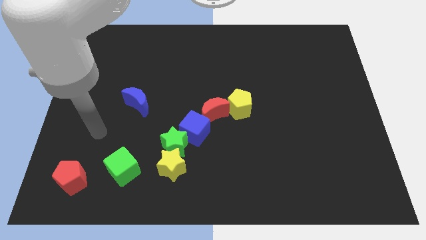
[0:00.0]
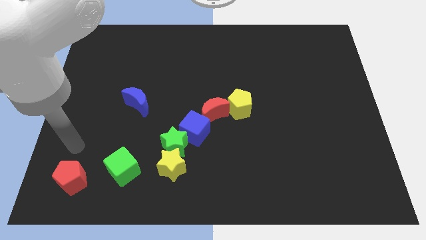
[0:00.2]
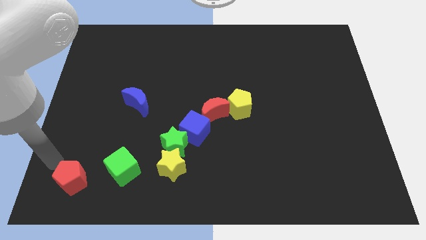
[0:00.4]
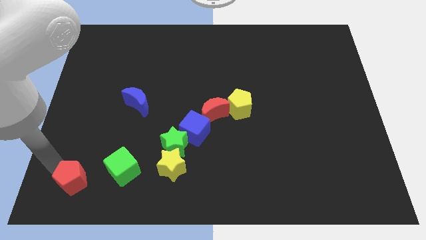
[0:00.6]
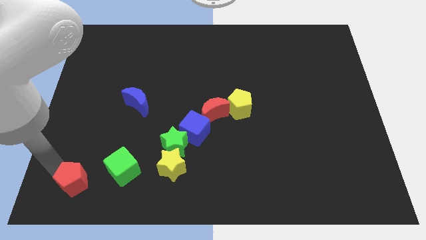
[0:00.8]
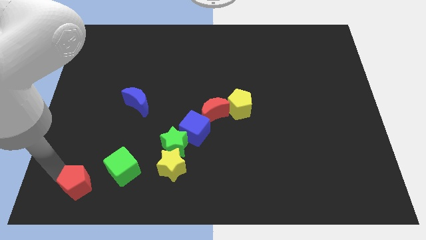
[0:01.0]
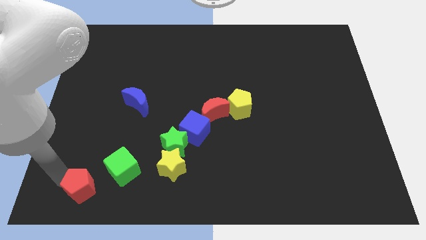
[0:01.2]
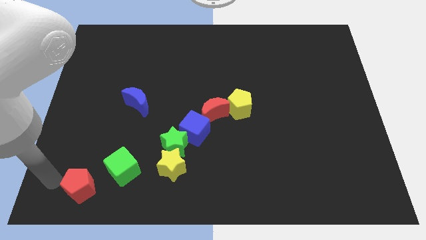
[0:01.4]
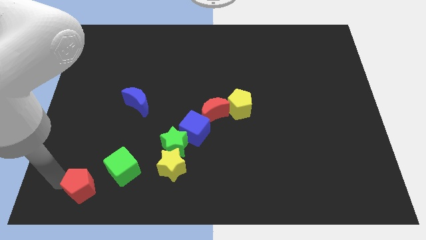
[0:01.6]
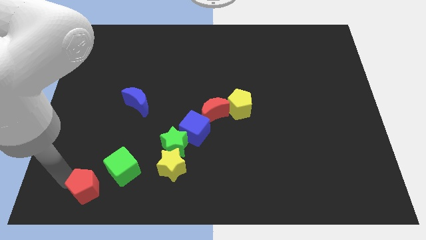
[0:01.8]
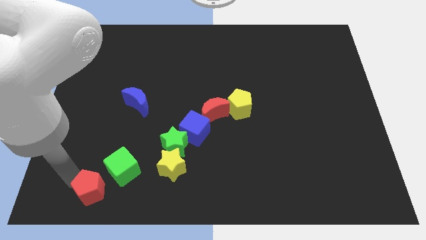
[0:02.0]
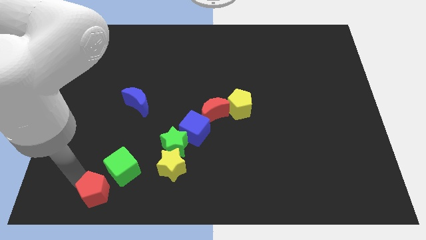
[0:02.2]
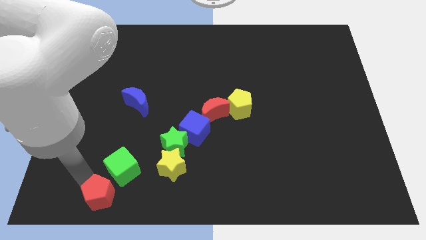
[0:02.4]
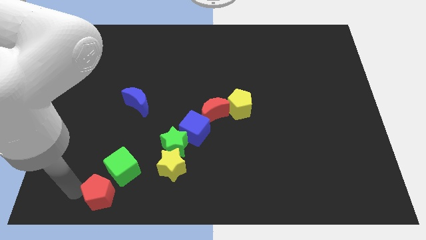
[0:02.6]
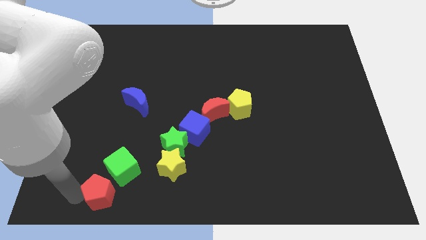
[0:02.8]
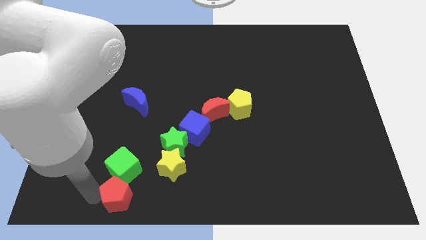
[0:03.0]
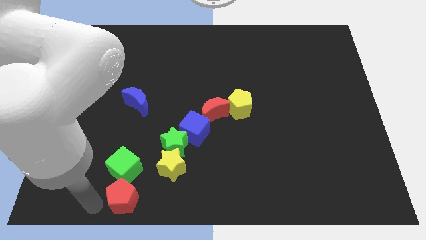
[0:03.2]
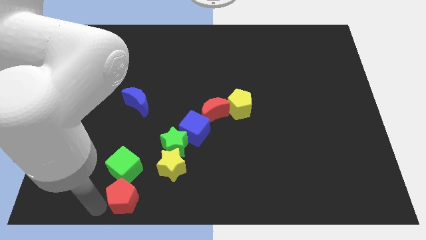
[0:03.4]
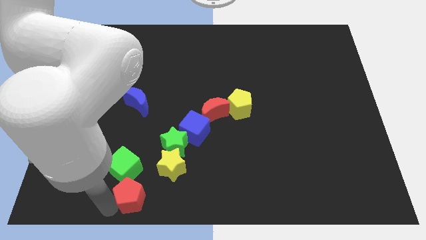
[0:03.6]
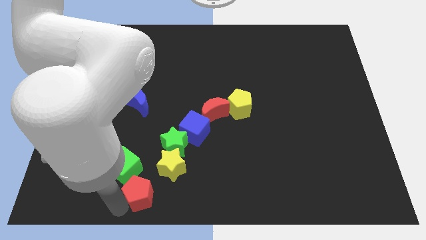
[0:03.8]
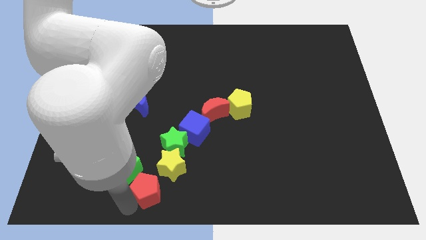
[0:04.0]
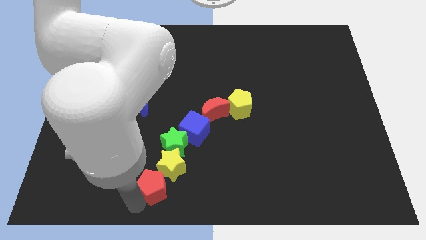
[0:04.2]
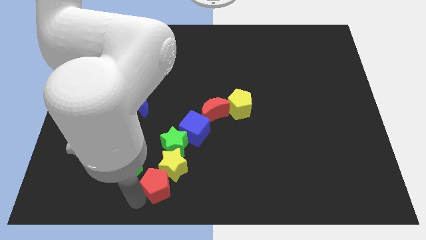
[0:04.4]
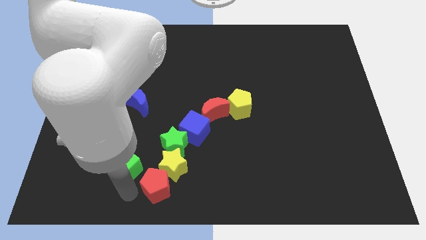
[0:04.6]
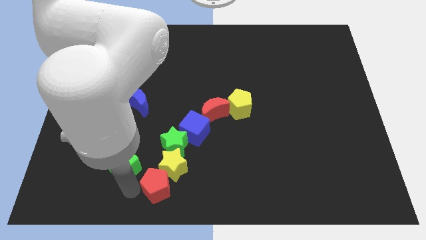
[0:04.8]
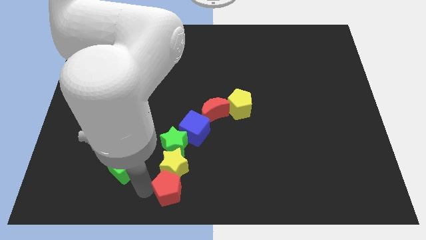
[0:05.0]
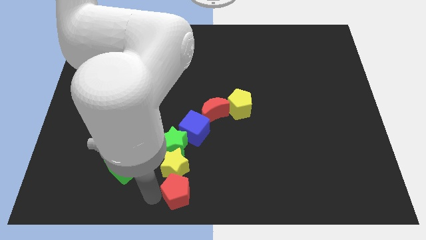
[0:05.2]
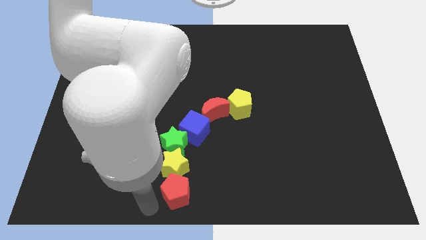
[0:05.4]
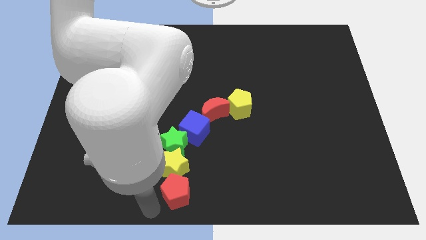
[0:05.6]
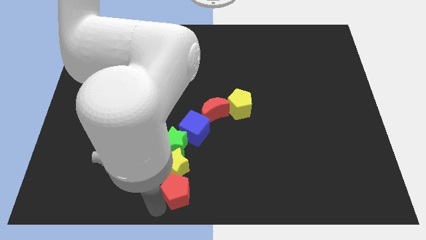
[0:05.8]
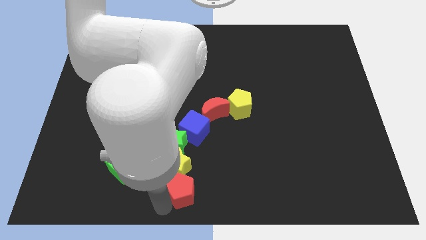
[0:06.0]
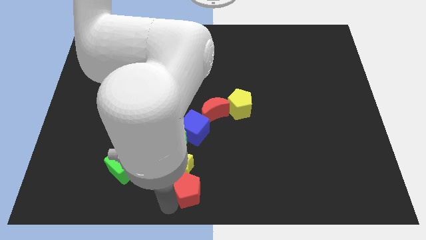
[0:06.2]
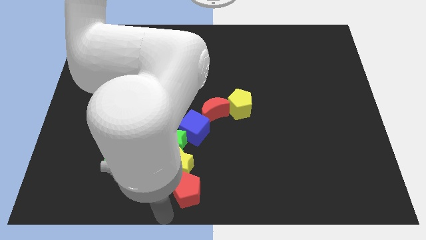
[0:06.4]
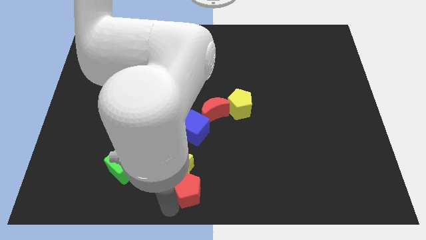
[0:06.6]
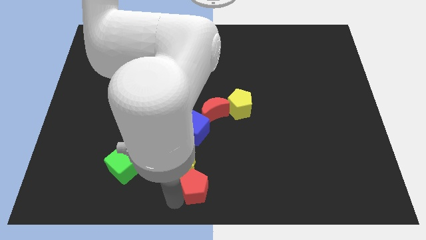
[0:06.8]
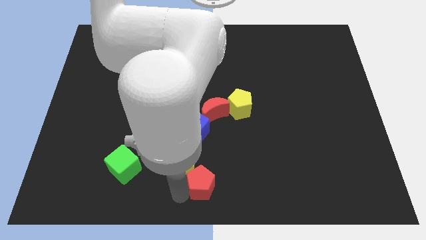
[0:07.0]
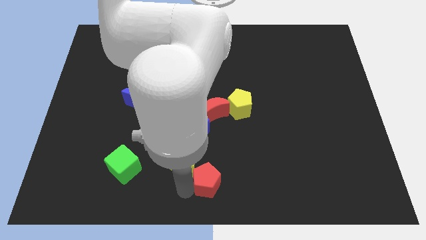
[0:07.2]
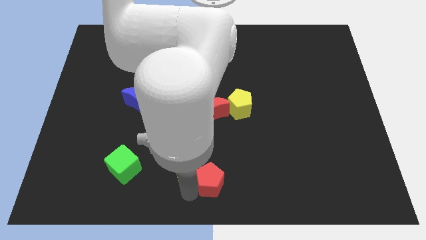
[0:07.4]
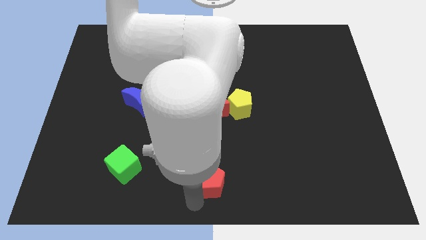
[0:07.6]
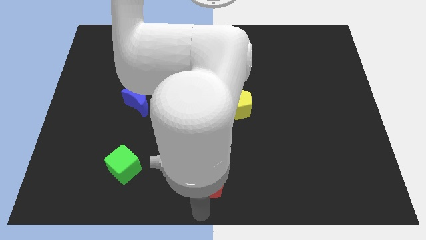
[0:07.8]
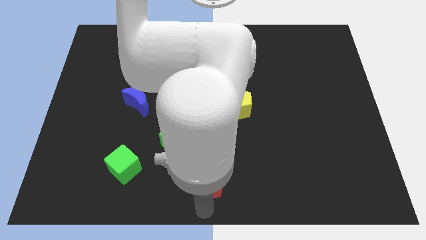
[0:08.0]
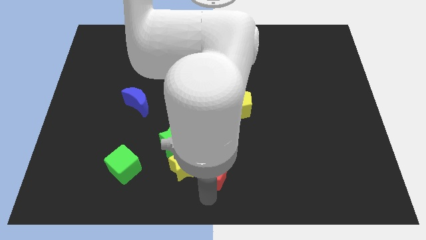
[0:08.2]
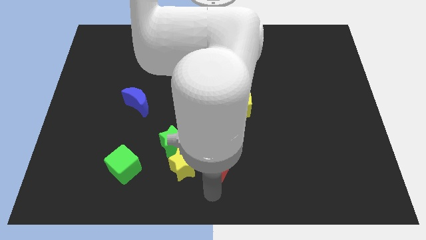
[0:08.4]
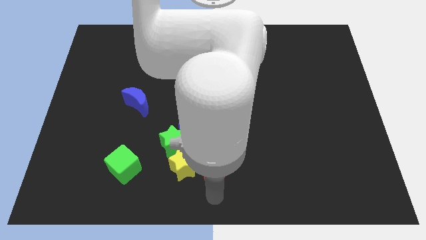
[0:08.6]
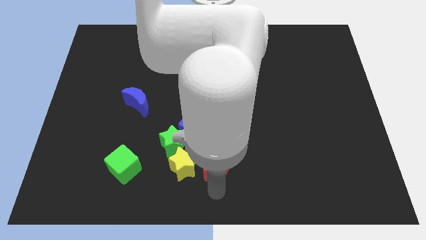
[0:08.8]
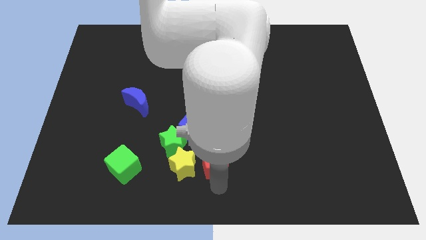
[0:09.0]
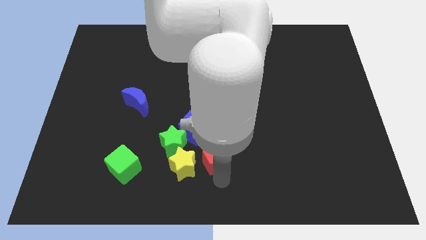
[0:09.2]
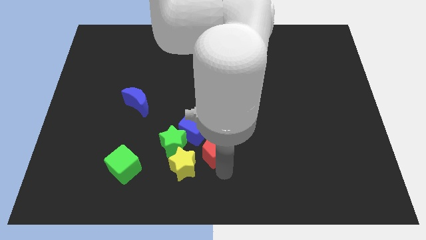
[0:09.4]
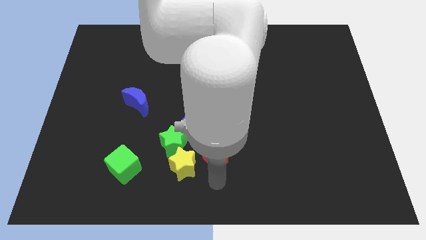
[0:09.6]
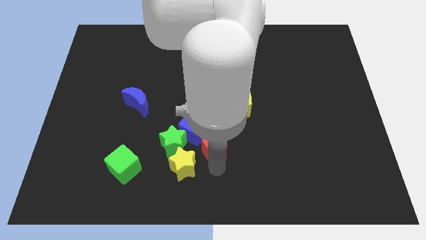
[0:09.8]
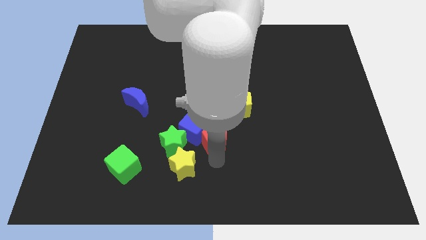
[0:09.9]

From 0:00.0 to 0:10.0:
move the red pentagon to the bottom left side of the yellow pentagon

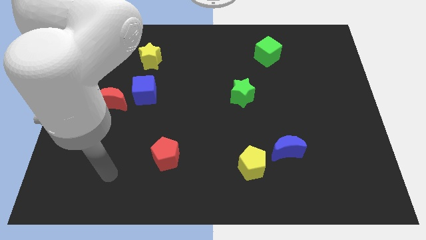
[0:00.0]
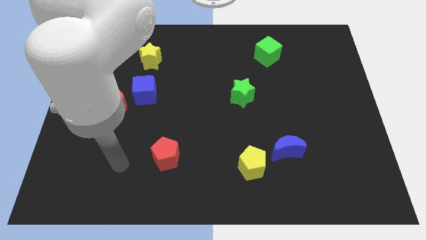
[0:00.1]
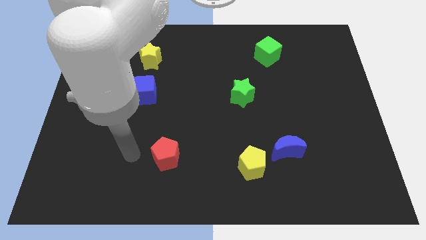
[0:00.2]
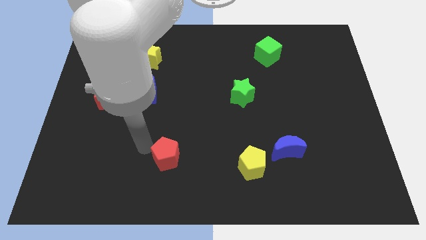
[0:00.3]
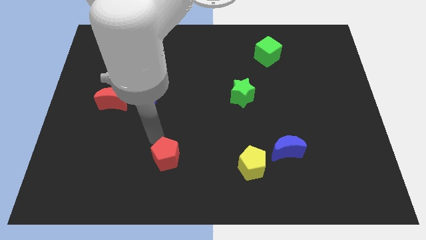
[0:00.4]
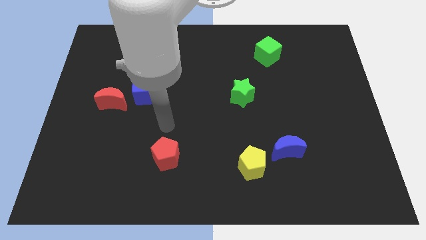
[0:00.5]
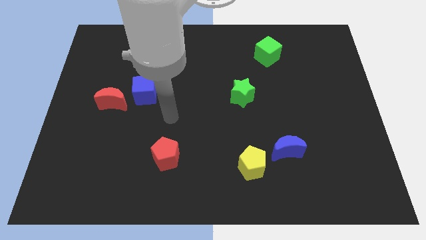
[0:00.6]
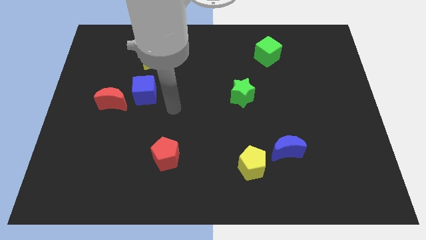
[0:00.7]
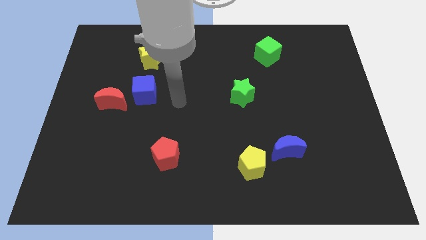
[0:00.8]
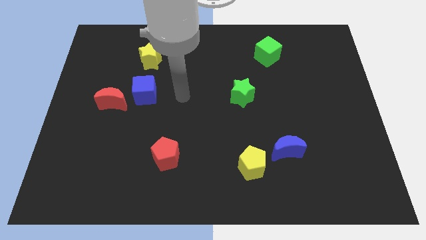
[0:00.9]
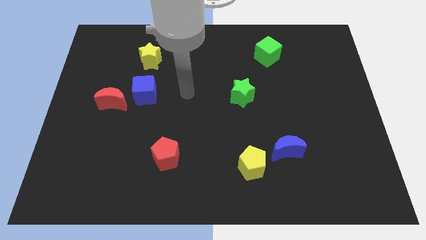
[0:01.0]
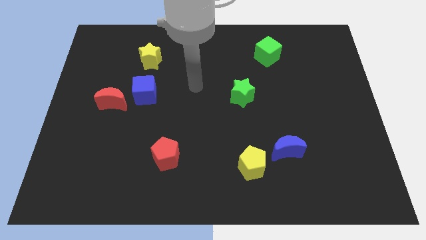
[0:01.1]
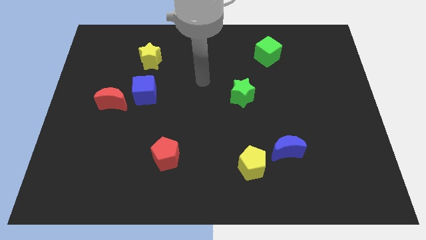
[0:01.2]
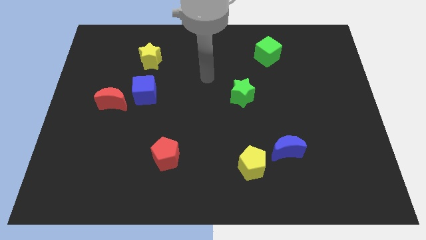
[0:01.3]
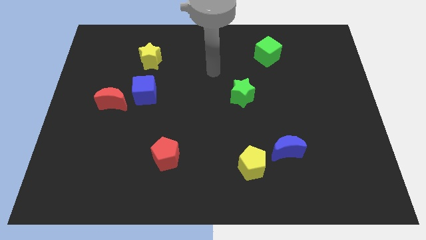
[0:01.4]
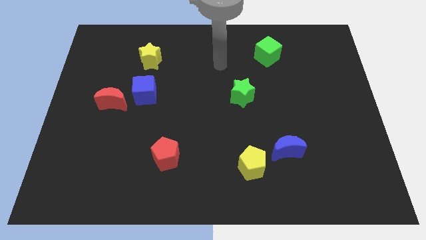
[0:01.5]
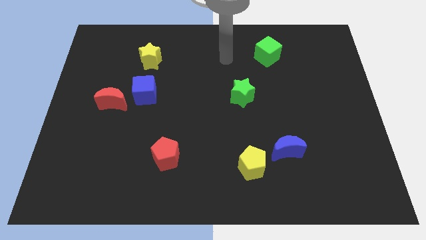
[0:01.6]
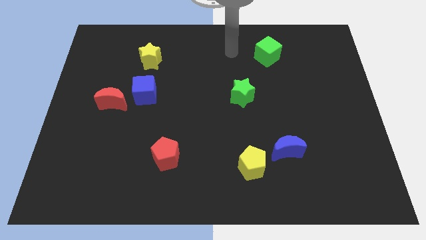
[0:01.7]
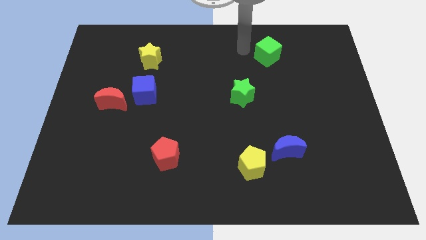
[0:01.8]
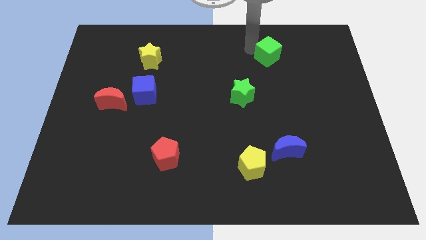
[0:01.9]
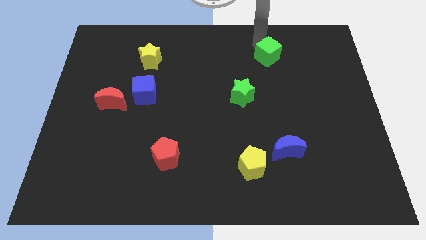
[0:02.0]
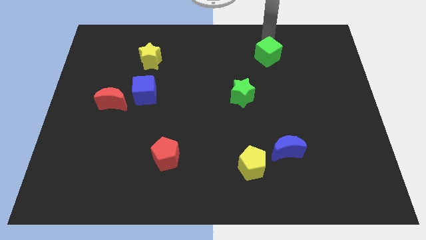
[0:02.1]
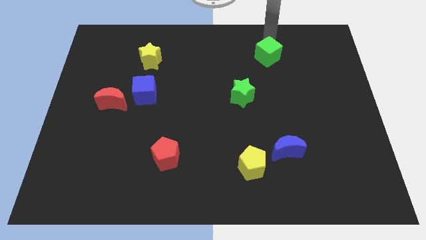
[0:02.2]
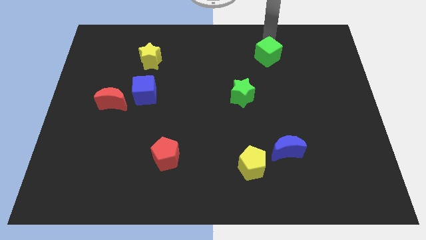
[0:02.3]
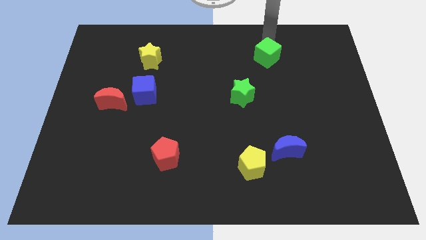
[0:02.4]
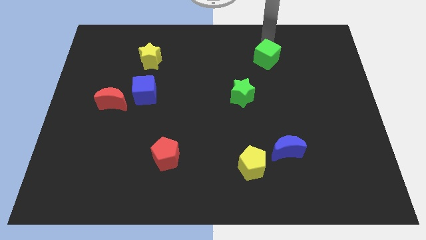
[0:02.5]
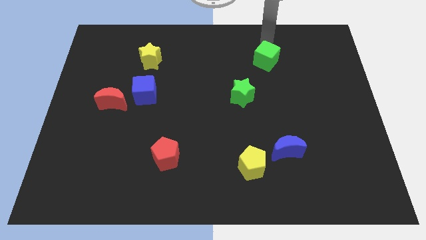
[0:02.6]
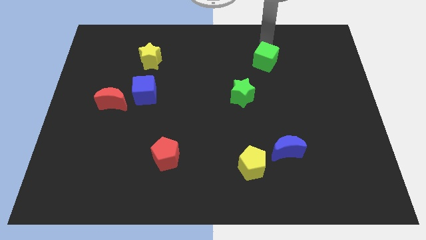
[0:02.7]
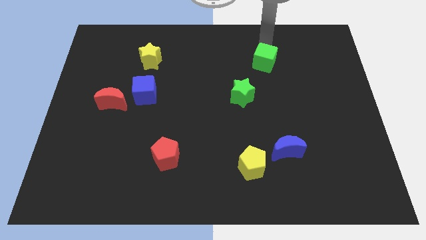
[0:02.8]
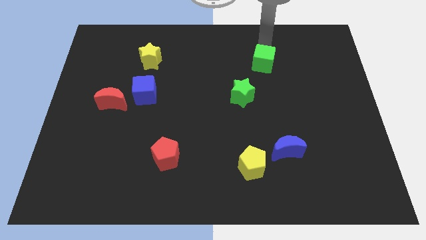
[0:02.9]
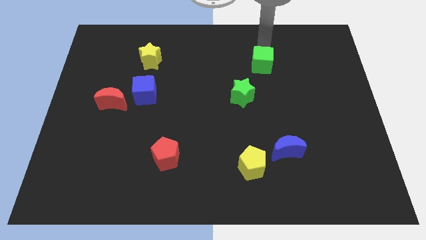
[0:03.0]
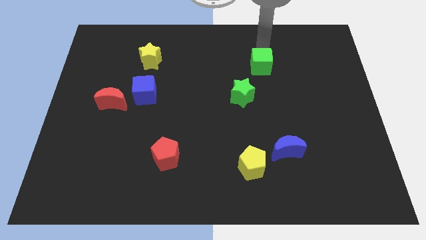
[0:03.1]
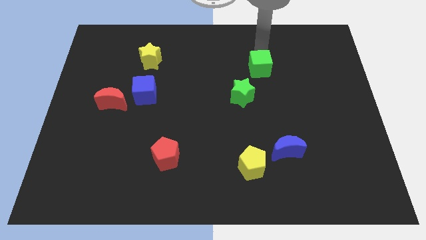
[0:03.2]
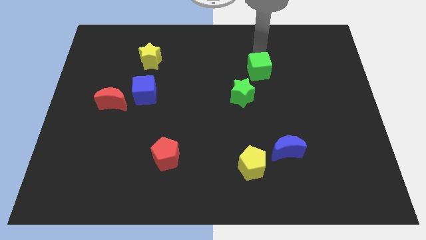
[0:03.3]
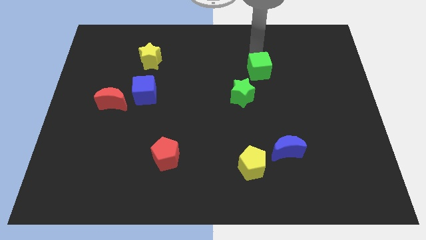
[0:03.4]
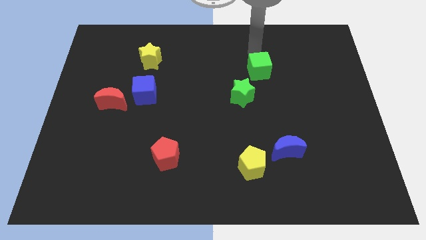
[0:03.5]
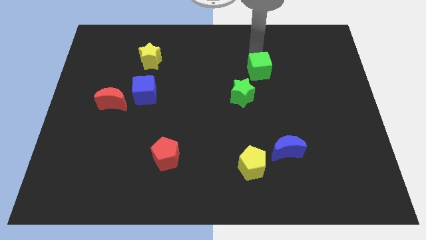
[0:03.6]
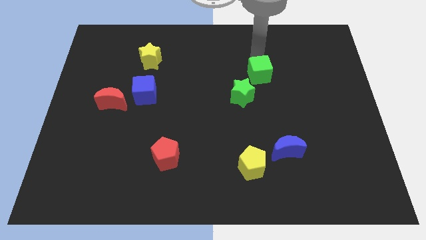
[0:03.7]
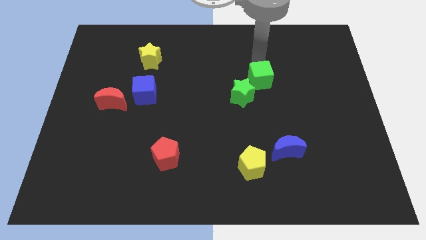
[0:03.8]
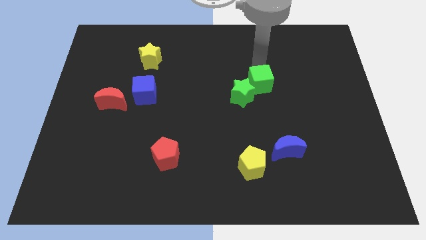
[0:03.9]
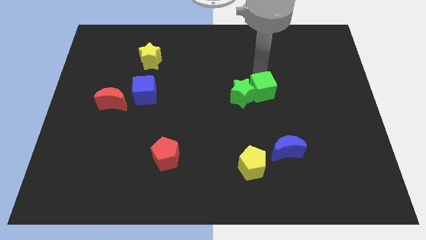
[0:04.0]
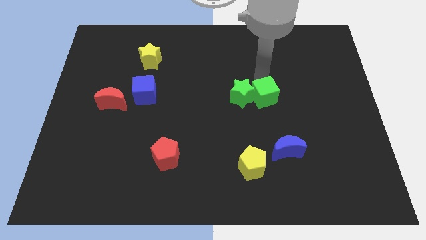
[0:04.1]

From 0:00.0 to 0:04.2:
put the green cube diagonally down and to the right of the green star
